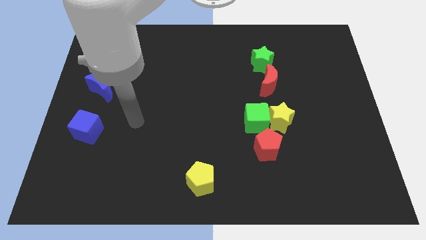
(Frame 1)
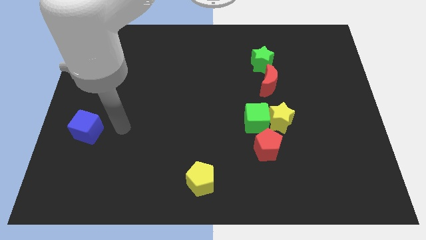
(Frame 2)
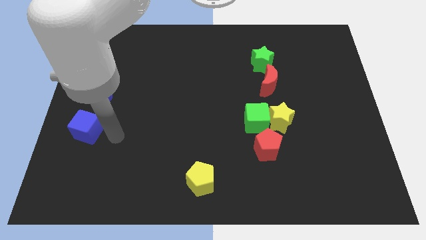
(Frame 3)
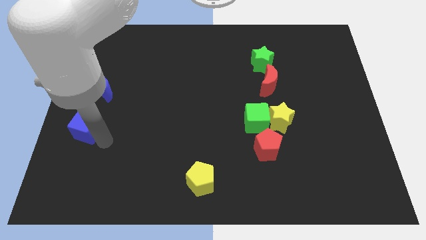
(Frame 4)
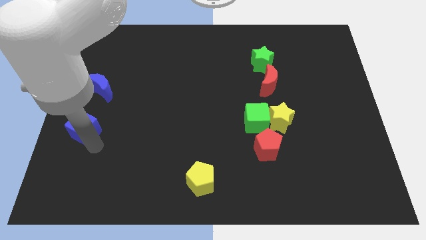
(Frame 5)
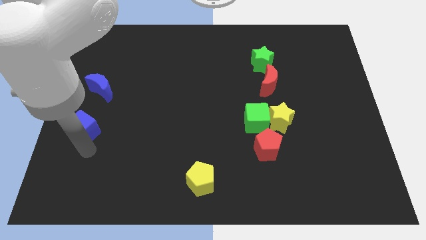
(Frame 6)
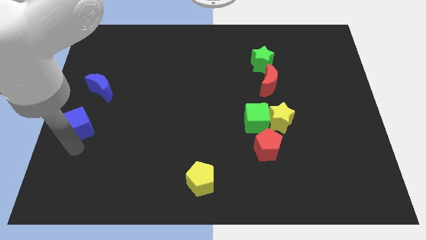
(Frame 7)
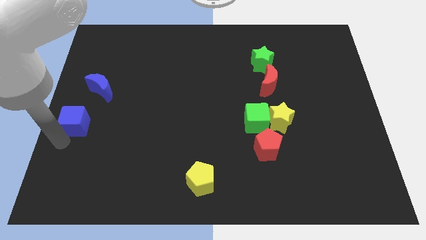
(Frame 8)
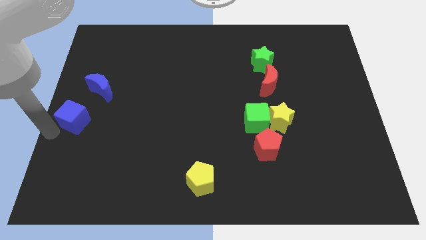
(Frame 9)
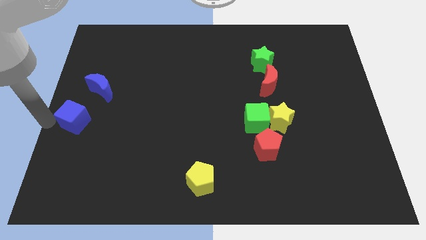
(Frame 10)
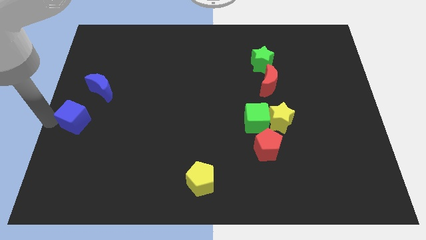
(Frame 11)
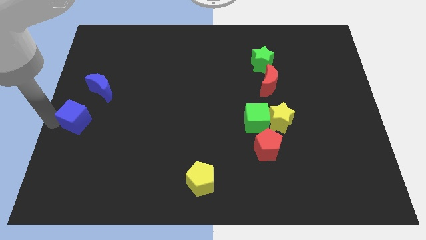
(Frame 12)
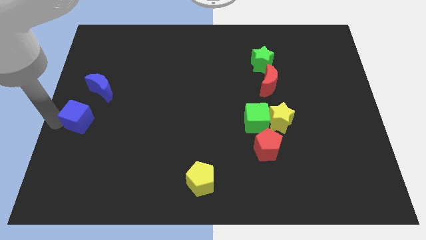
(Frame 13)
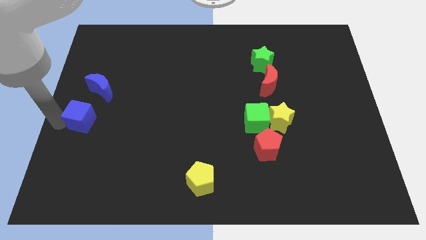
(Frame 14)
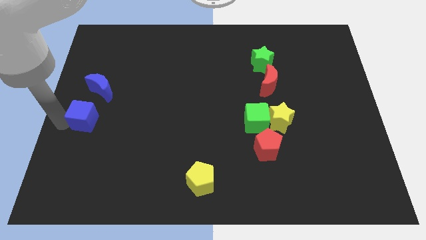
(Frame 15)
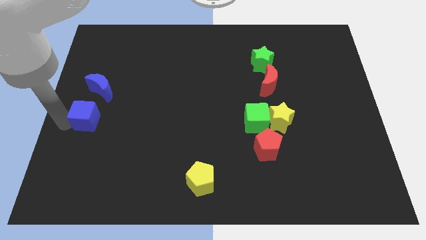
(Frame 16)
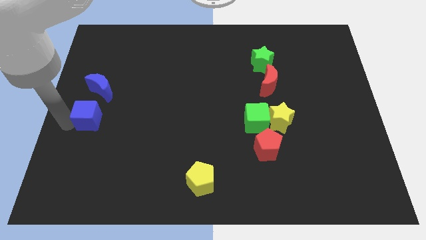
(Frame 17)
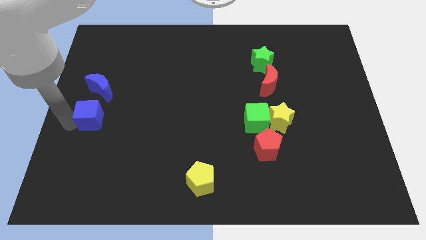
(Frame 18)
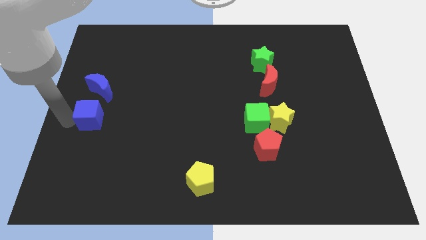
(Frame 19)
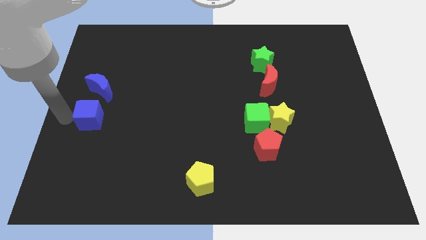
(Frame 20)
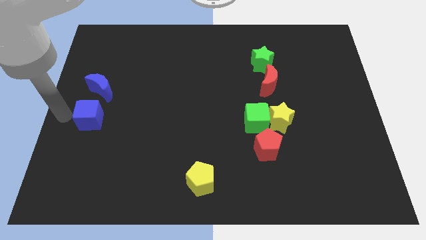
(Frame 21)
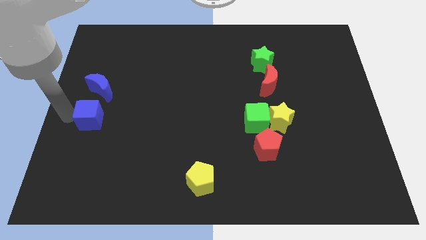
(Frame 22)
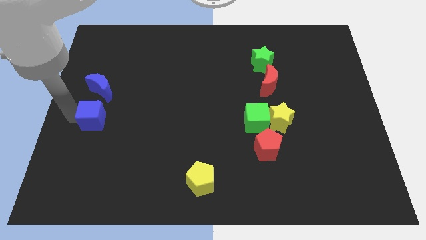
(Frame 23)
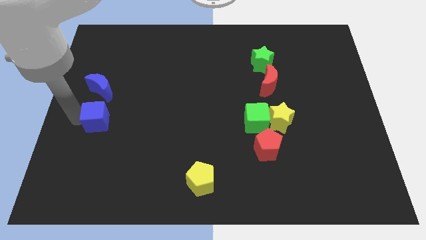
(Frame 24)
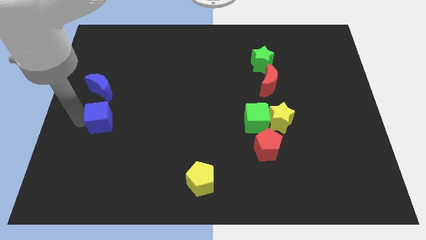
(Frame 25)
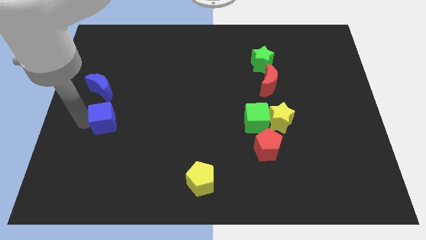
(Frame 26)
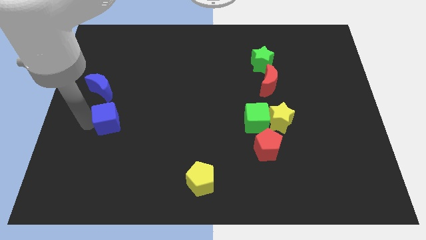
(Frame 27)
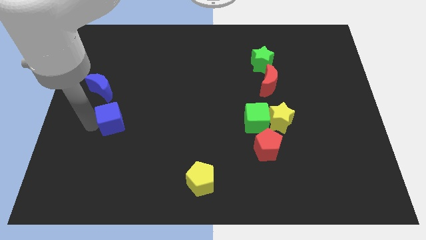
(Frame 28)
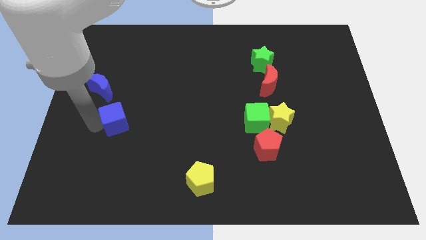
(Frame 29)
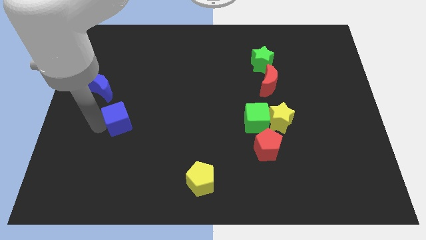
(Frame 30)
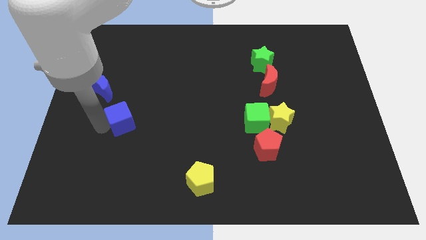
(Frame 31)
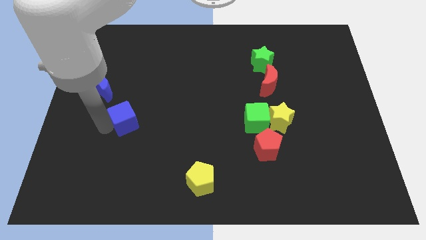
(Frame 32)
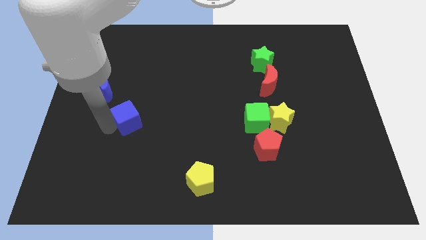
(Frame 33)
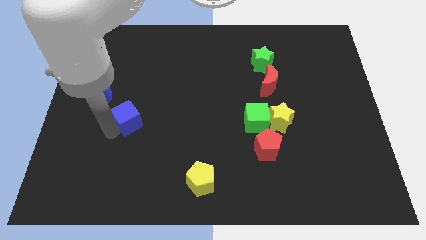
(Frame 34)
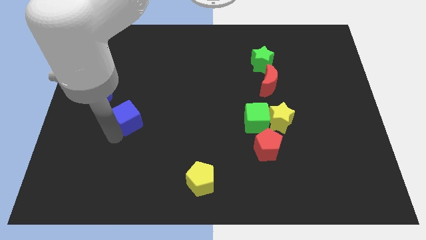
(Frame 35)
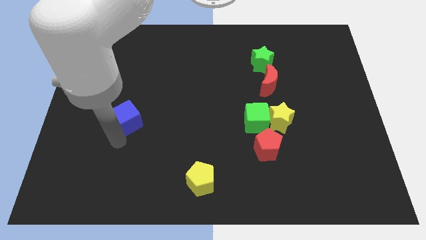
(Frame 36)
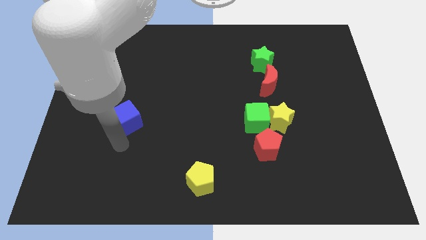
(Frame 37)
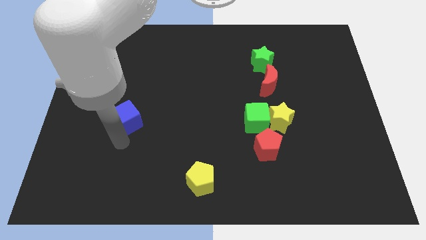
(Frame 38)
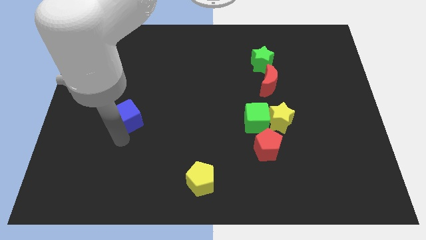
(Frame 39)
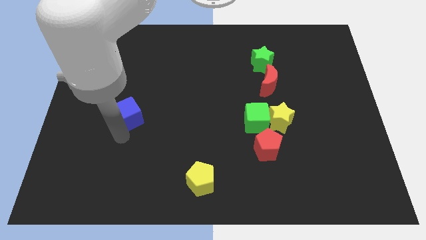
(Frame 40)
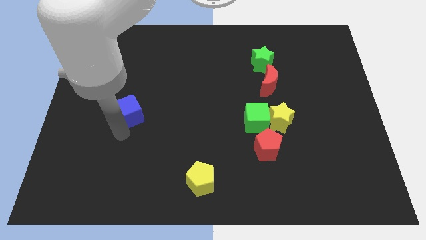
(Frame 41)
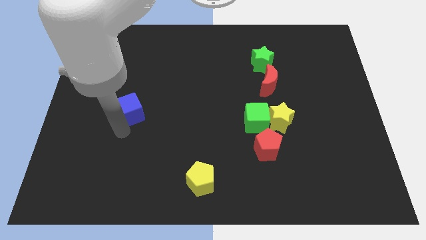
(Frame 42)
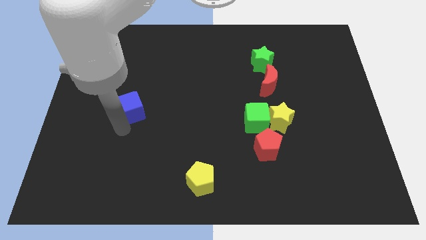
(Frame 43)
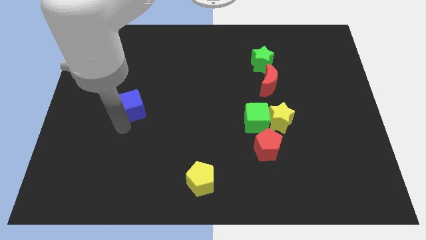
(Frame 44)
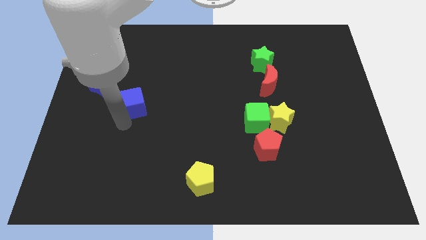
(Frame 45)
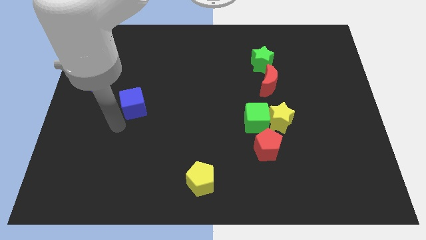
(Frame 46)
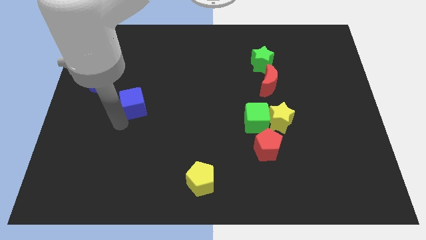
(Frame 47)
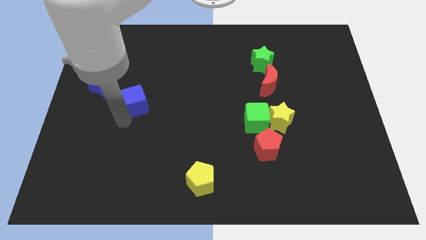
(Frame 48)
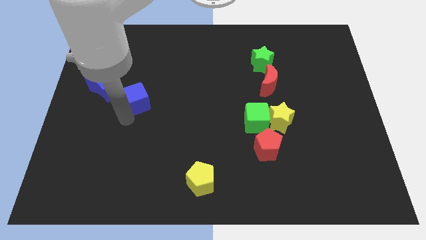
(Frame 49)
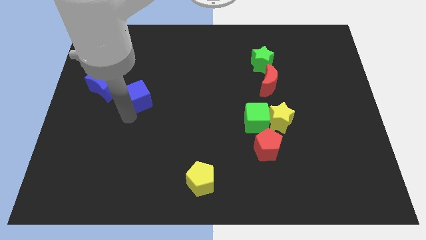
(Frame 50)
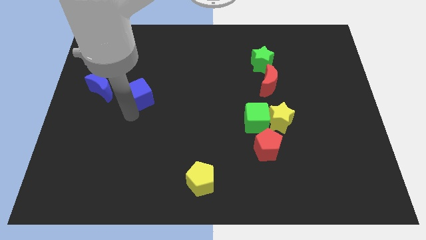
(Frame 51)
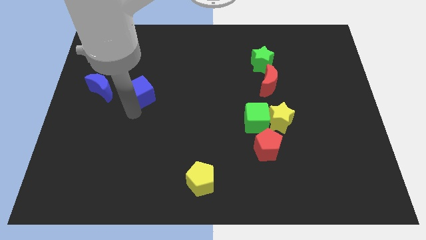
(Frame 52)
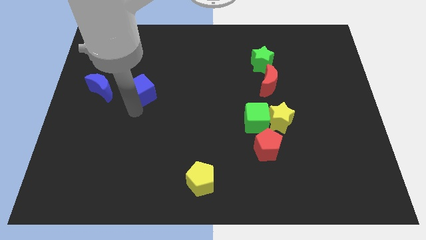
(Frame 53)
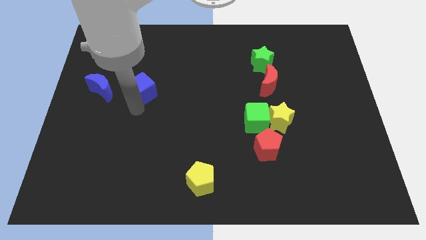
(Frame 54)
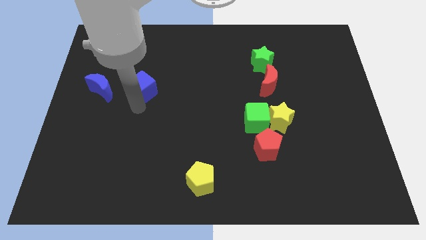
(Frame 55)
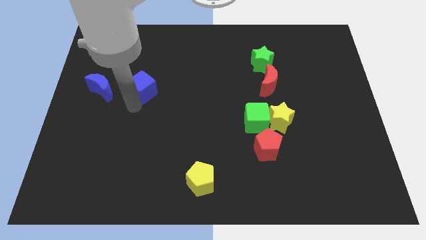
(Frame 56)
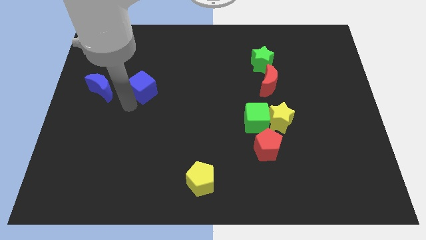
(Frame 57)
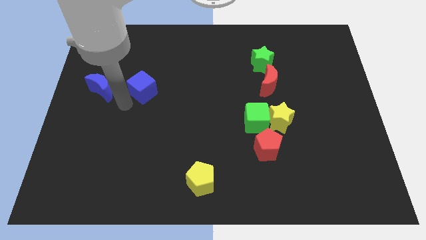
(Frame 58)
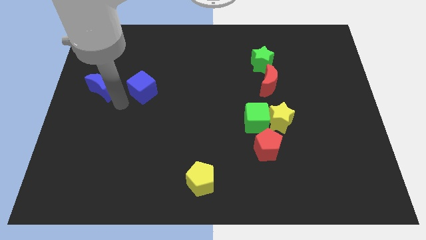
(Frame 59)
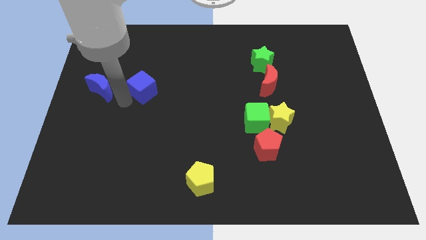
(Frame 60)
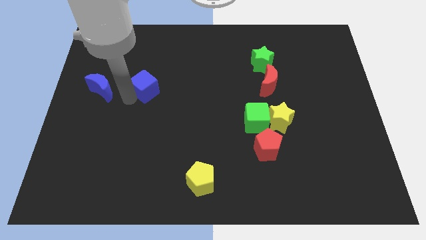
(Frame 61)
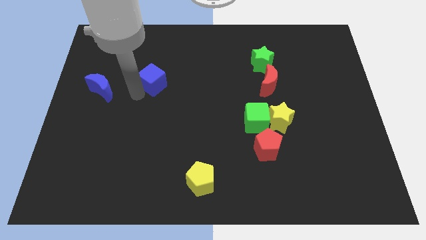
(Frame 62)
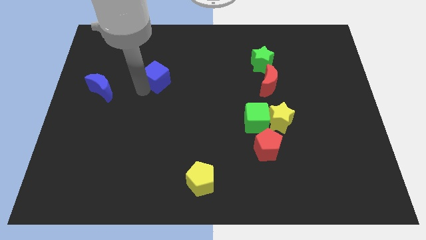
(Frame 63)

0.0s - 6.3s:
push the blue cube upwards and to the right diagonally

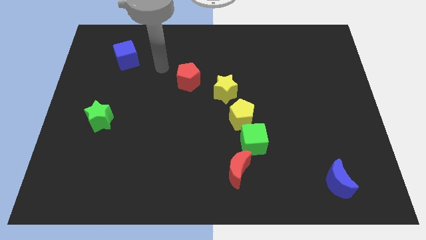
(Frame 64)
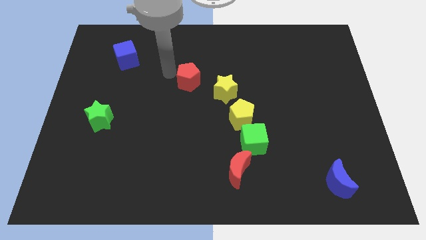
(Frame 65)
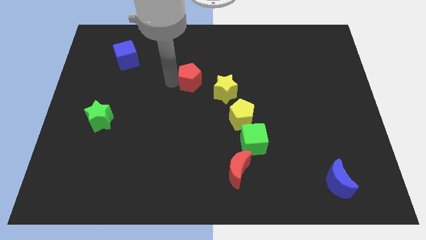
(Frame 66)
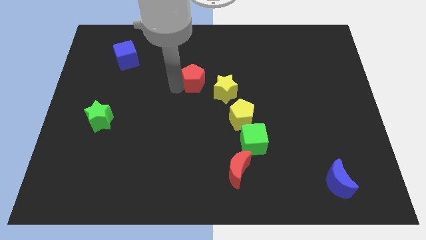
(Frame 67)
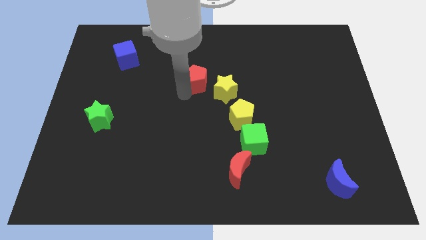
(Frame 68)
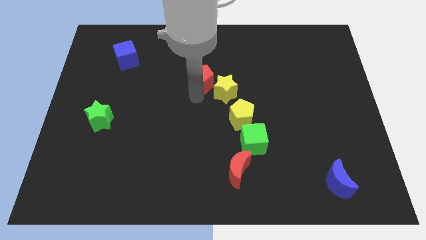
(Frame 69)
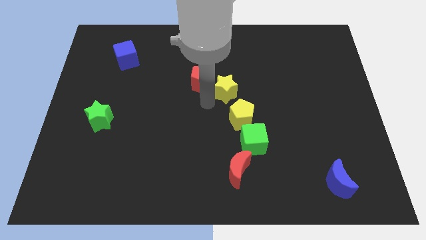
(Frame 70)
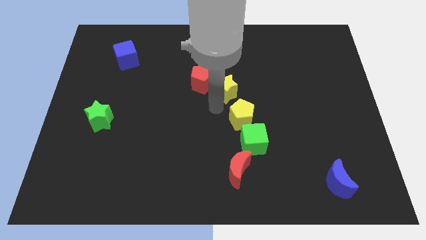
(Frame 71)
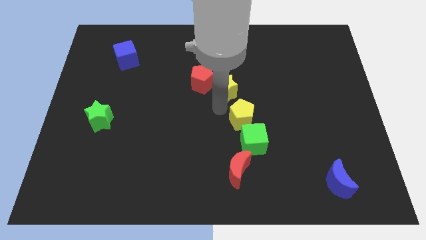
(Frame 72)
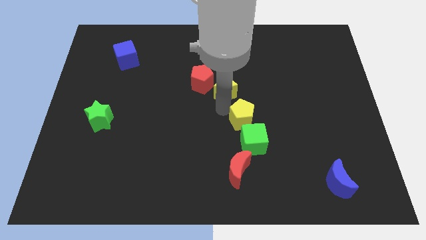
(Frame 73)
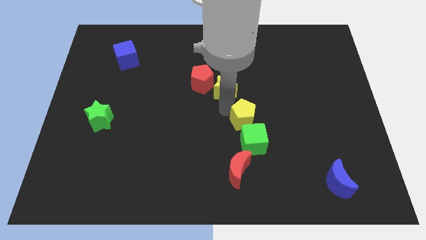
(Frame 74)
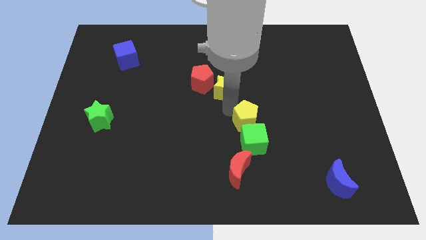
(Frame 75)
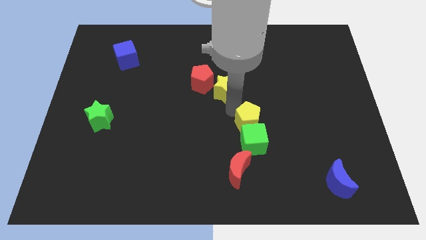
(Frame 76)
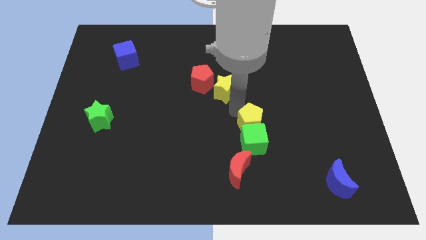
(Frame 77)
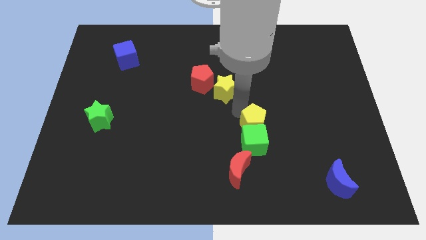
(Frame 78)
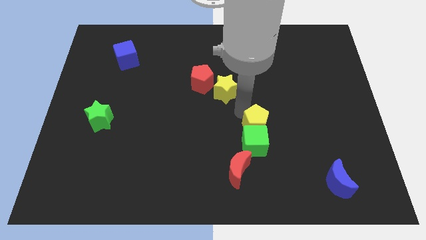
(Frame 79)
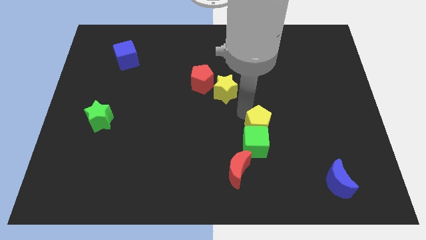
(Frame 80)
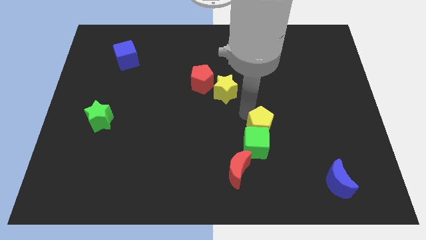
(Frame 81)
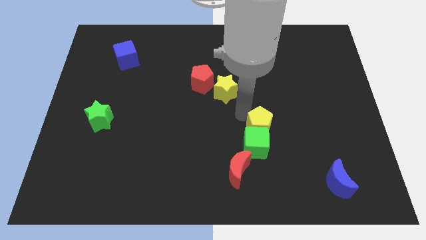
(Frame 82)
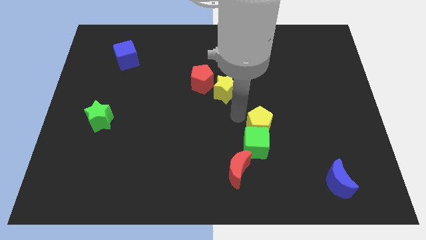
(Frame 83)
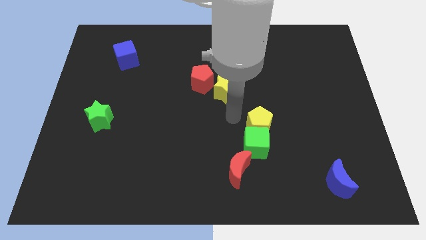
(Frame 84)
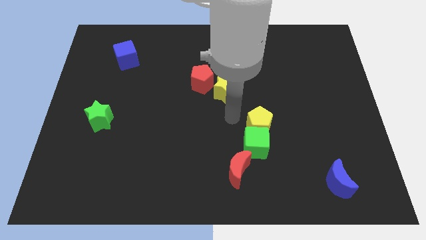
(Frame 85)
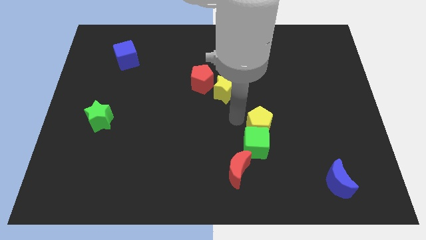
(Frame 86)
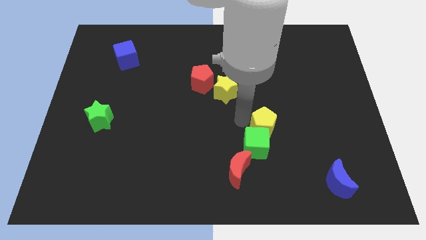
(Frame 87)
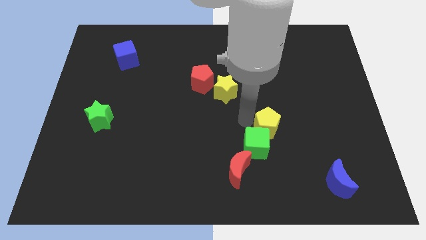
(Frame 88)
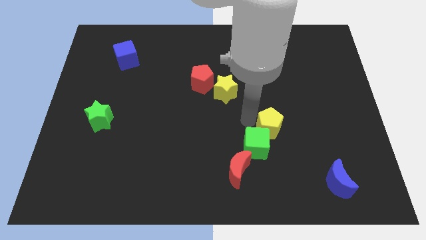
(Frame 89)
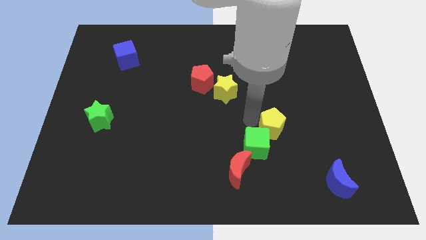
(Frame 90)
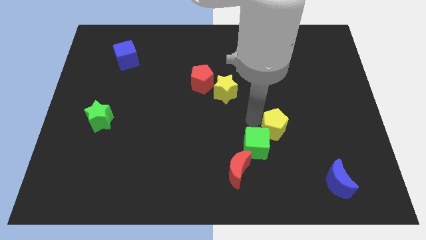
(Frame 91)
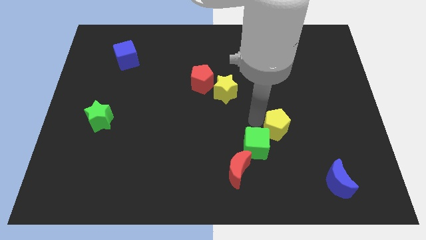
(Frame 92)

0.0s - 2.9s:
slide the yellow pentagon a bit down and then to the right
